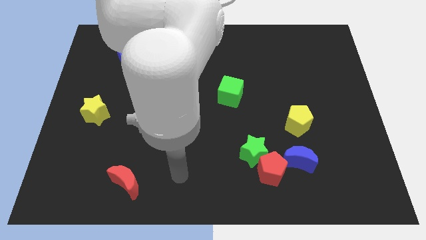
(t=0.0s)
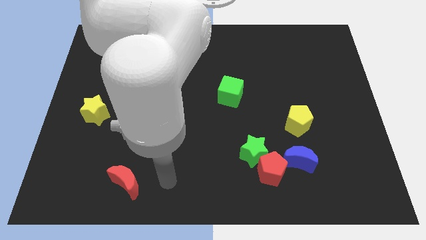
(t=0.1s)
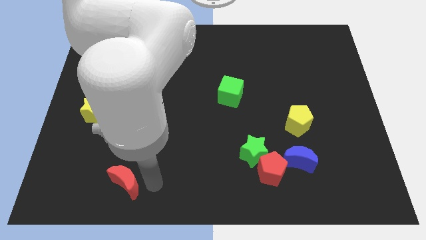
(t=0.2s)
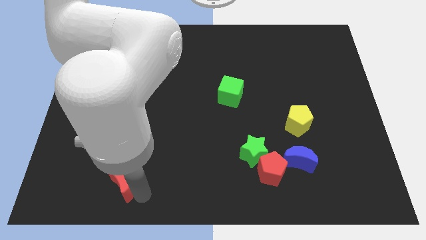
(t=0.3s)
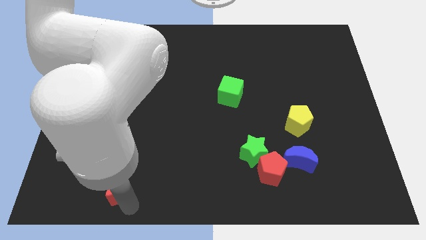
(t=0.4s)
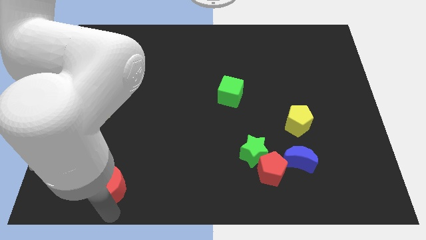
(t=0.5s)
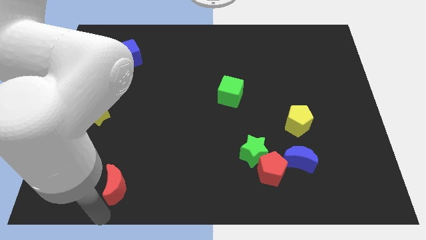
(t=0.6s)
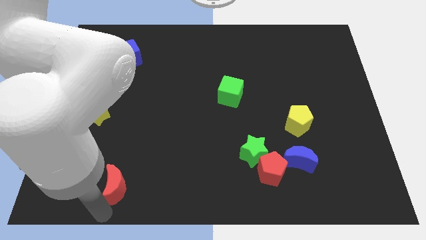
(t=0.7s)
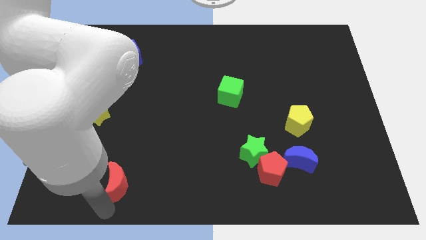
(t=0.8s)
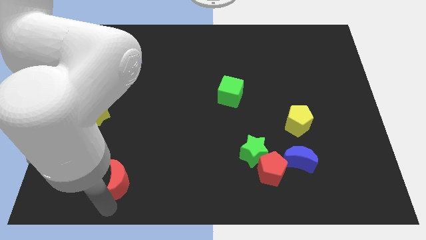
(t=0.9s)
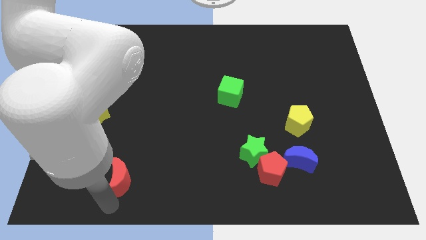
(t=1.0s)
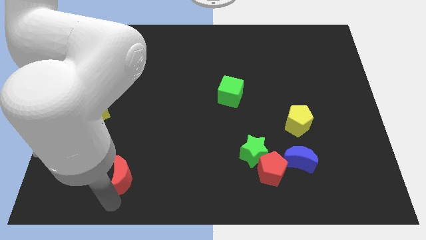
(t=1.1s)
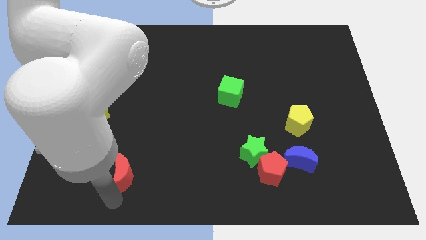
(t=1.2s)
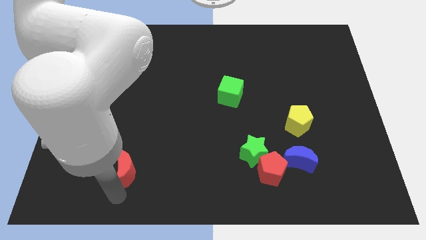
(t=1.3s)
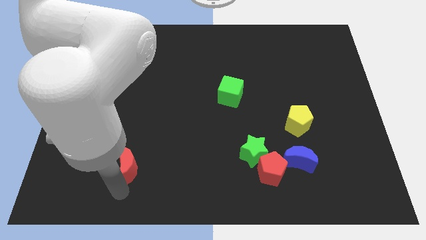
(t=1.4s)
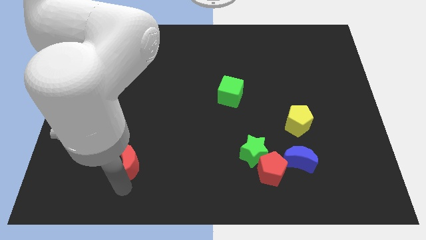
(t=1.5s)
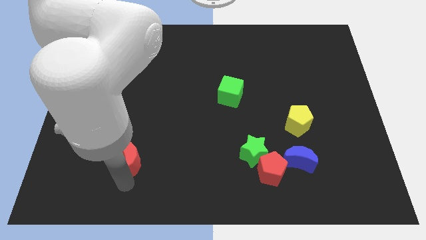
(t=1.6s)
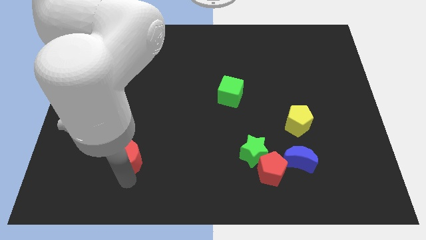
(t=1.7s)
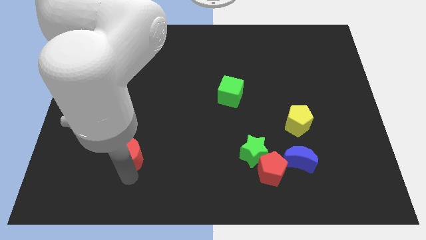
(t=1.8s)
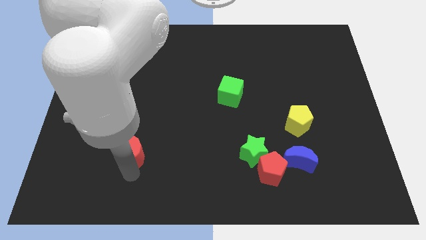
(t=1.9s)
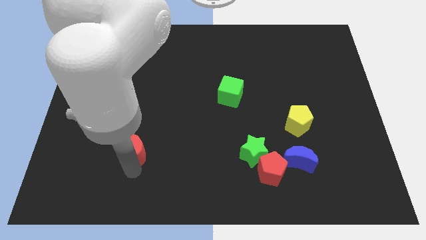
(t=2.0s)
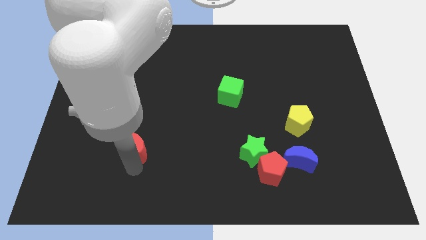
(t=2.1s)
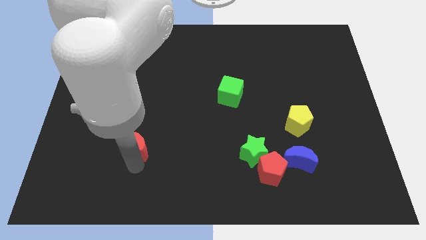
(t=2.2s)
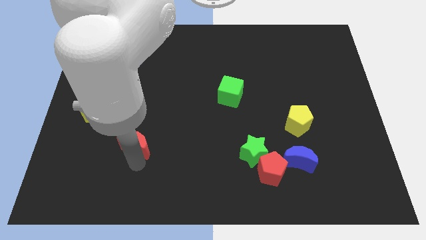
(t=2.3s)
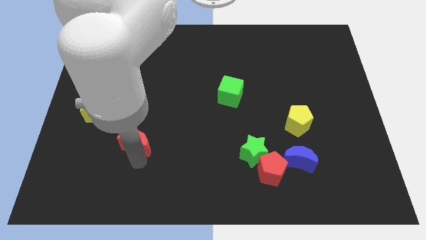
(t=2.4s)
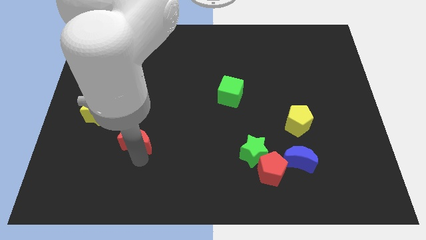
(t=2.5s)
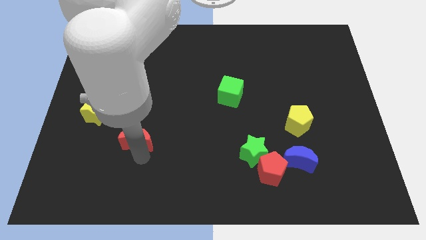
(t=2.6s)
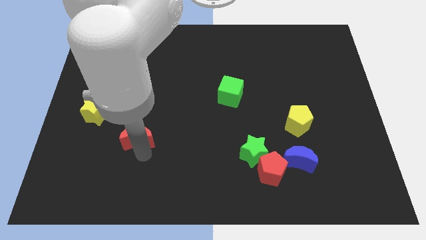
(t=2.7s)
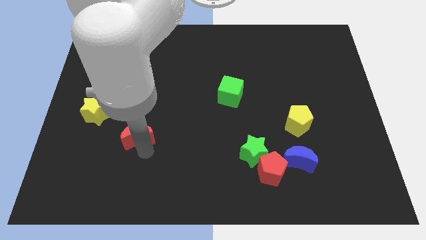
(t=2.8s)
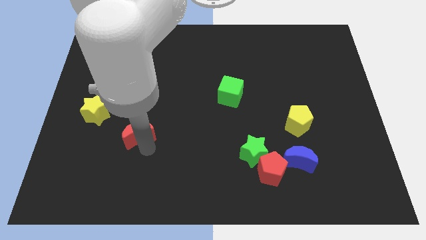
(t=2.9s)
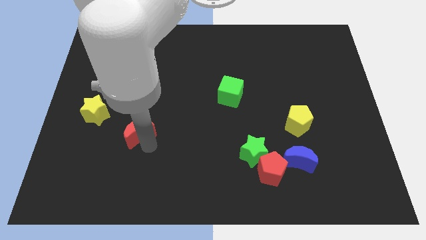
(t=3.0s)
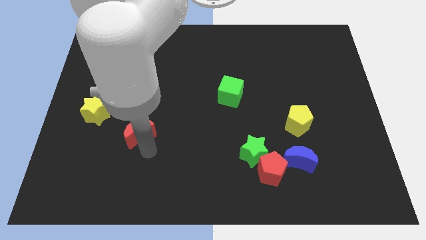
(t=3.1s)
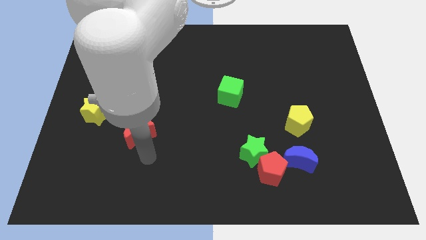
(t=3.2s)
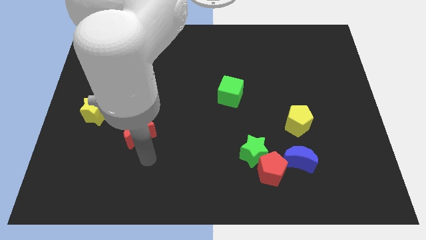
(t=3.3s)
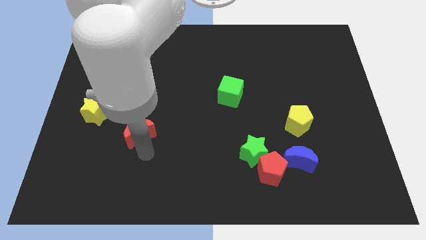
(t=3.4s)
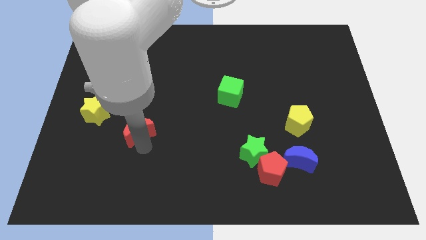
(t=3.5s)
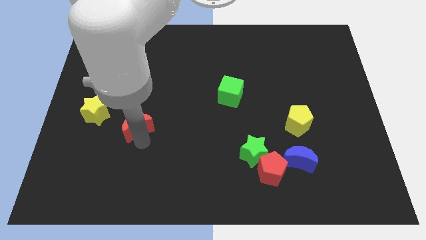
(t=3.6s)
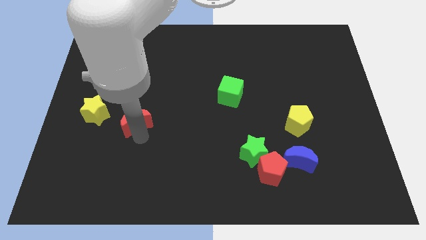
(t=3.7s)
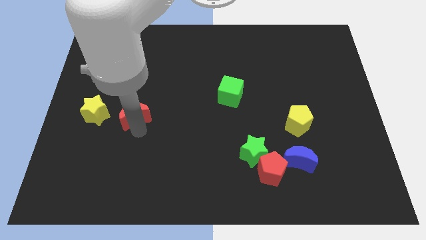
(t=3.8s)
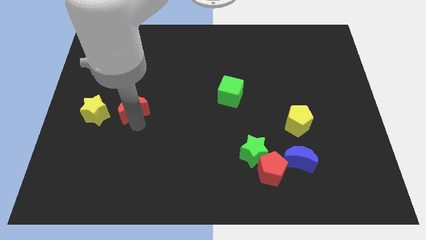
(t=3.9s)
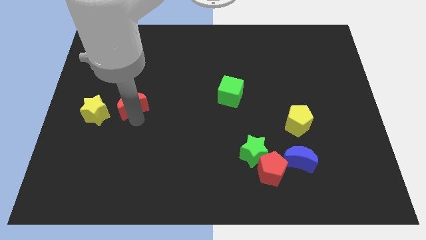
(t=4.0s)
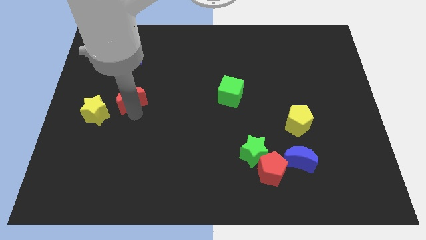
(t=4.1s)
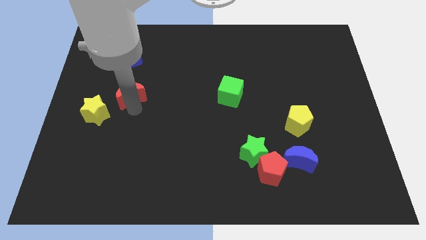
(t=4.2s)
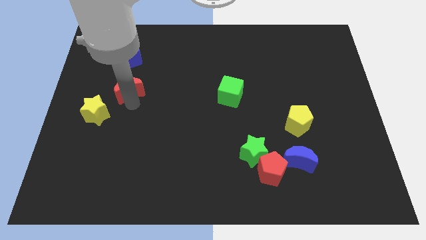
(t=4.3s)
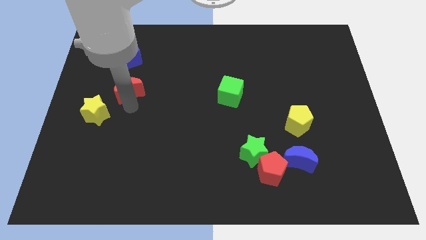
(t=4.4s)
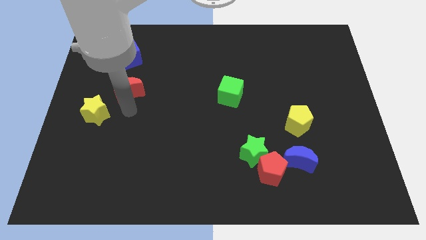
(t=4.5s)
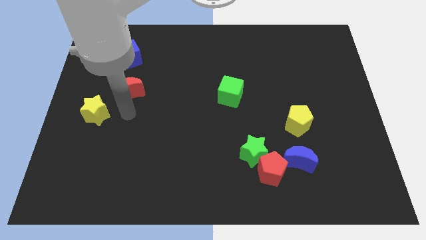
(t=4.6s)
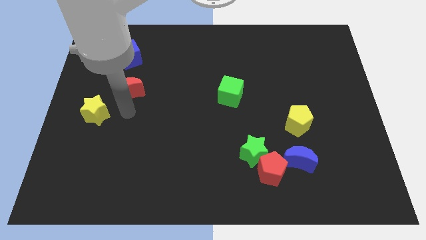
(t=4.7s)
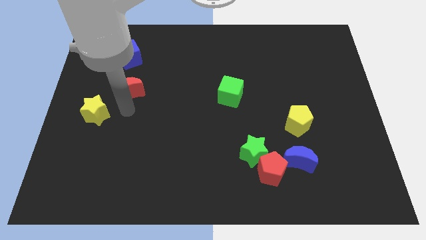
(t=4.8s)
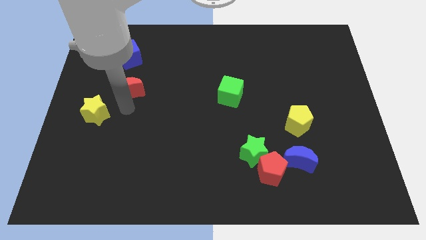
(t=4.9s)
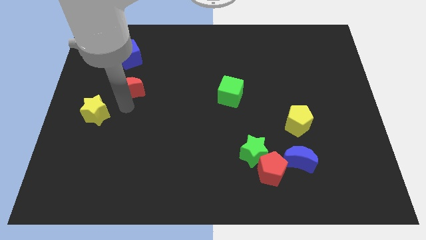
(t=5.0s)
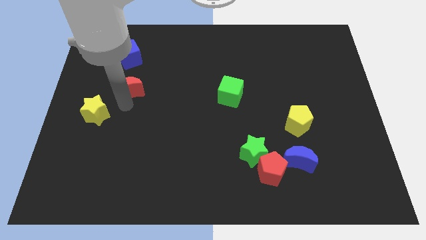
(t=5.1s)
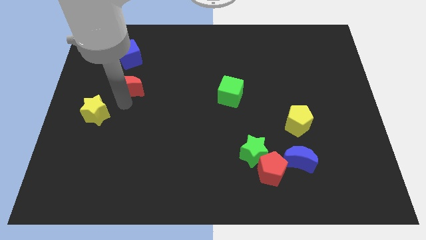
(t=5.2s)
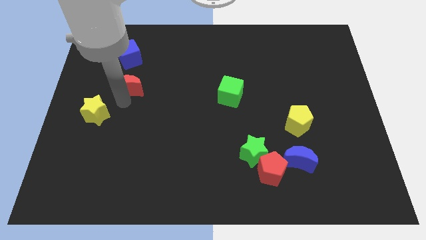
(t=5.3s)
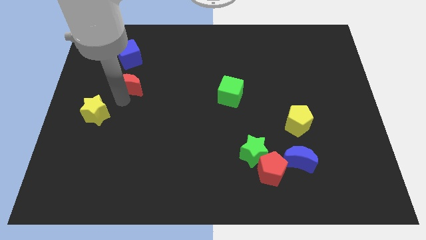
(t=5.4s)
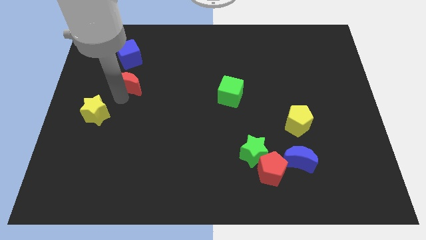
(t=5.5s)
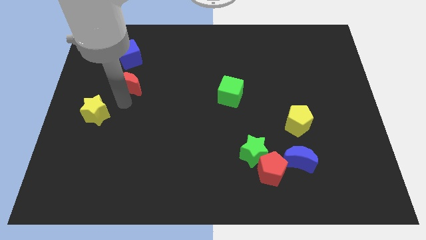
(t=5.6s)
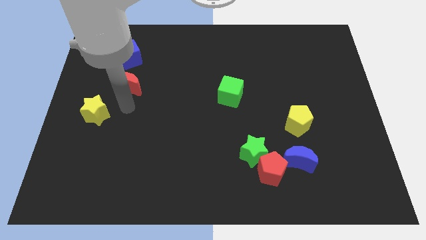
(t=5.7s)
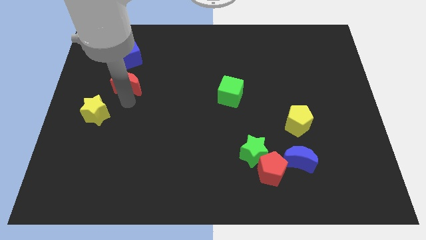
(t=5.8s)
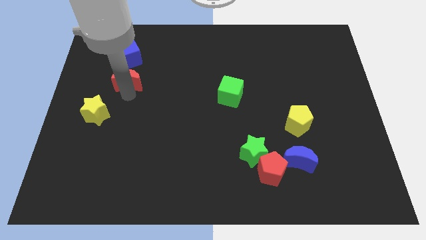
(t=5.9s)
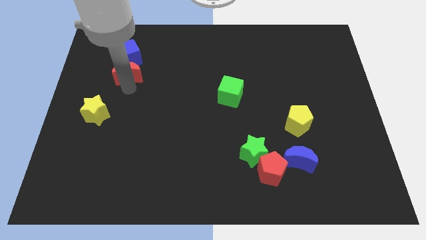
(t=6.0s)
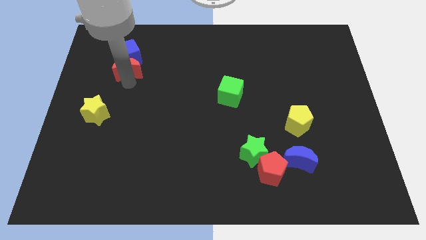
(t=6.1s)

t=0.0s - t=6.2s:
push the red moon to the blue cube

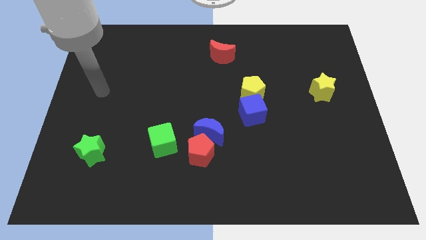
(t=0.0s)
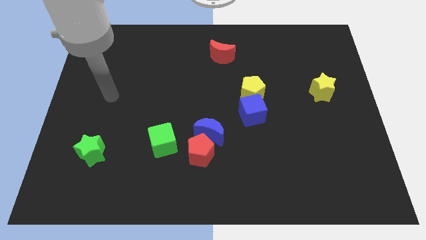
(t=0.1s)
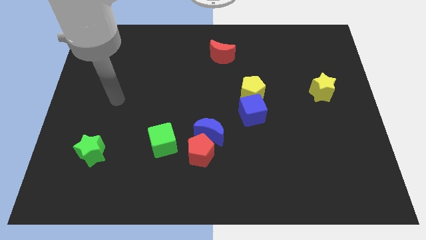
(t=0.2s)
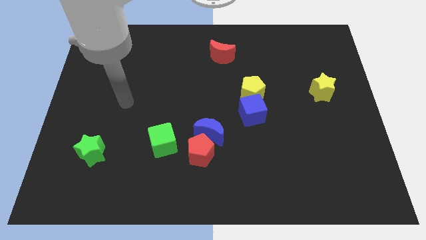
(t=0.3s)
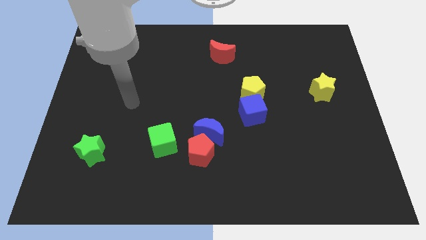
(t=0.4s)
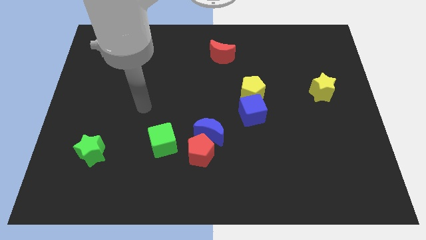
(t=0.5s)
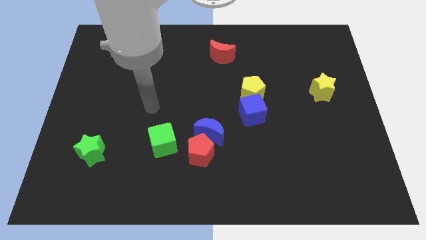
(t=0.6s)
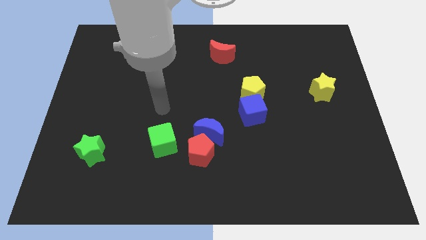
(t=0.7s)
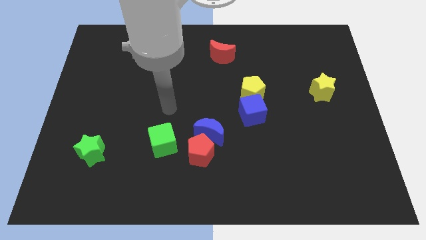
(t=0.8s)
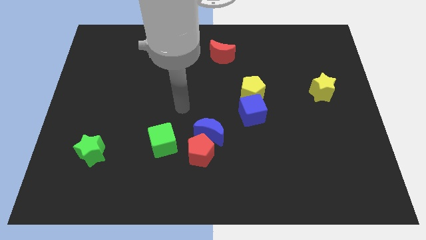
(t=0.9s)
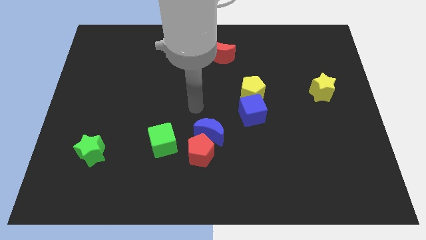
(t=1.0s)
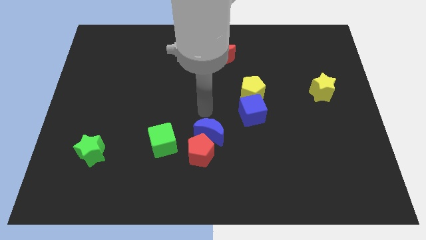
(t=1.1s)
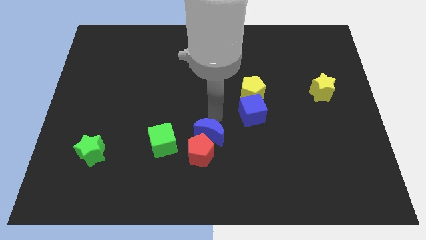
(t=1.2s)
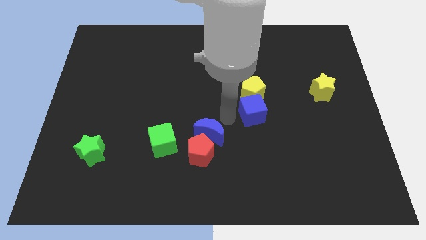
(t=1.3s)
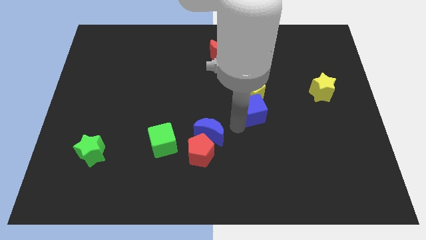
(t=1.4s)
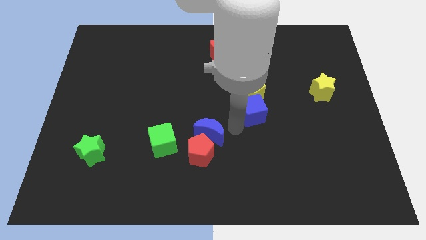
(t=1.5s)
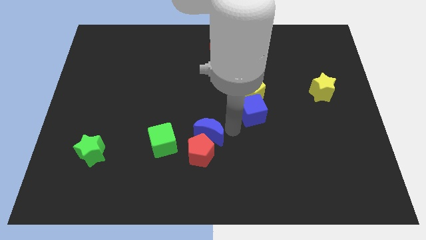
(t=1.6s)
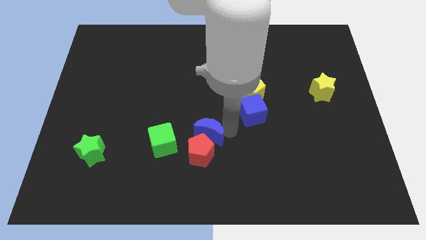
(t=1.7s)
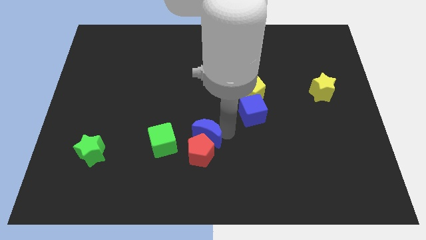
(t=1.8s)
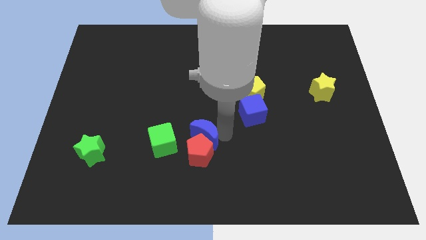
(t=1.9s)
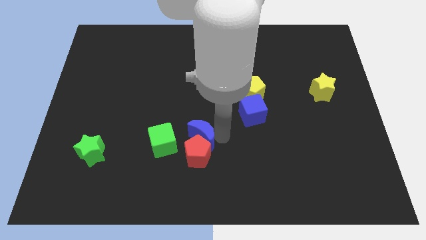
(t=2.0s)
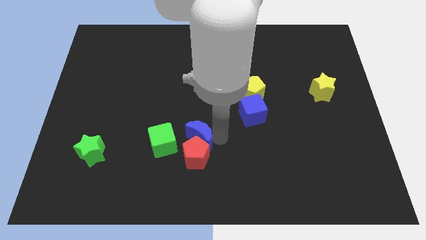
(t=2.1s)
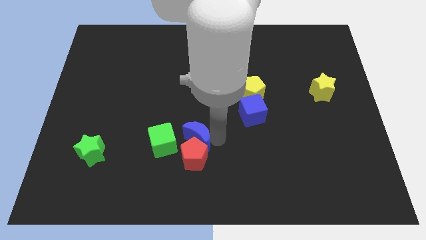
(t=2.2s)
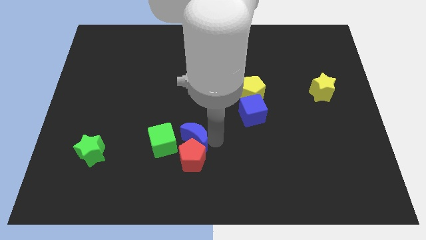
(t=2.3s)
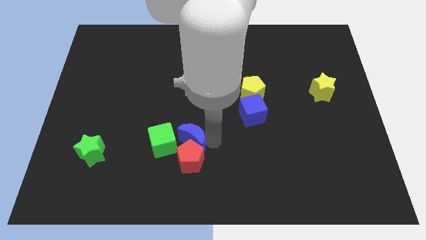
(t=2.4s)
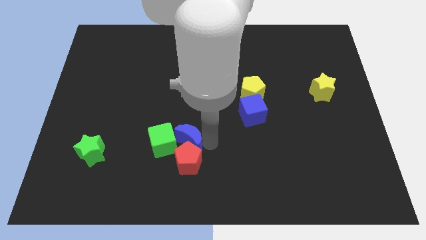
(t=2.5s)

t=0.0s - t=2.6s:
put the blue moon to the green cube
